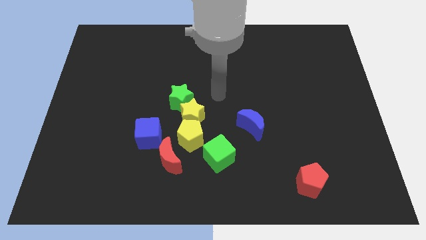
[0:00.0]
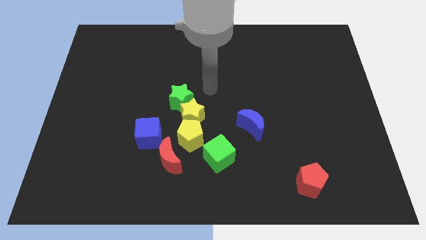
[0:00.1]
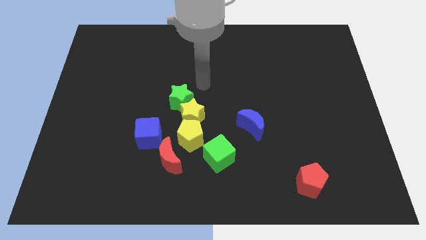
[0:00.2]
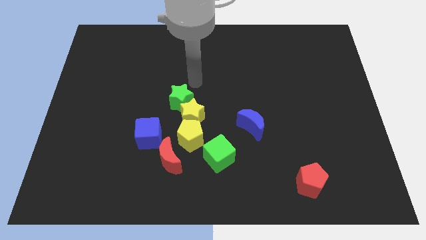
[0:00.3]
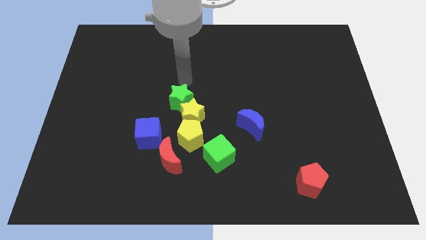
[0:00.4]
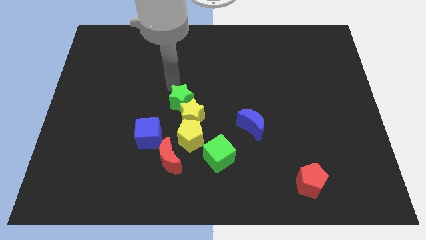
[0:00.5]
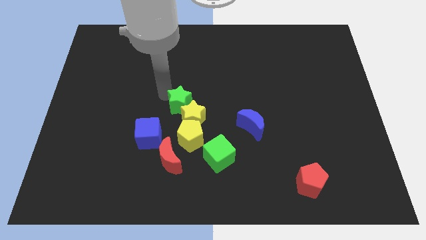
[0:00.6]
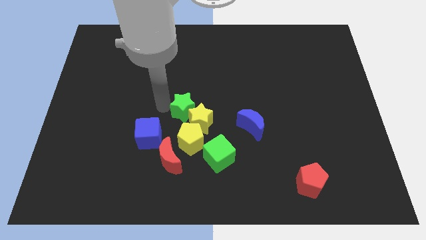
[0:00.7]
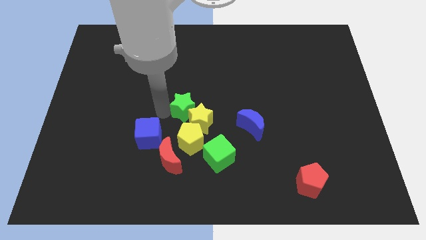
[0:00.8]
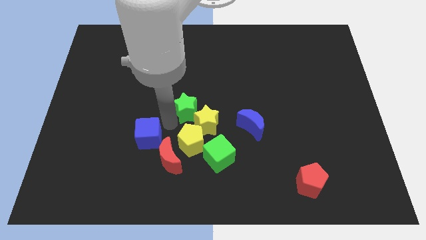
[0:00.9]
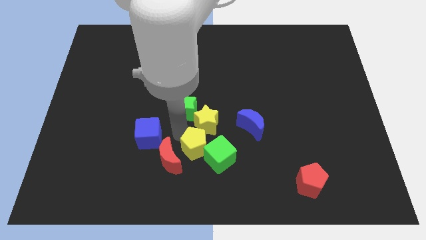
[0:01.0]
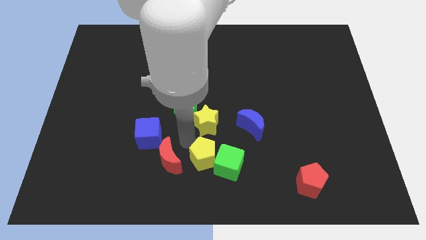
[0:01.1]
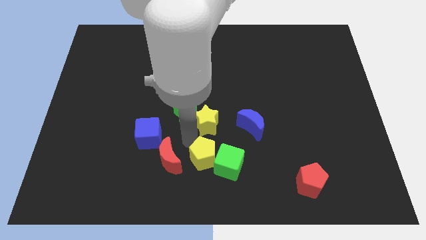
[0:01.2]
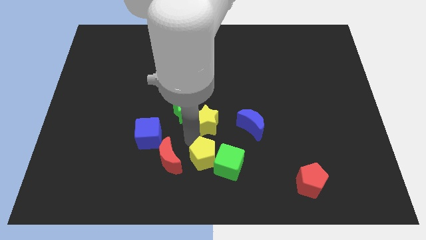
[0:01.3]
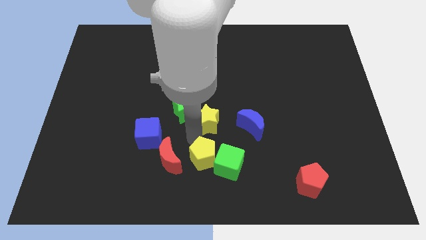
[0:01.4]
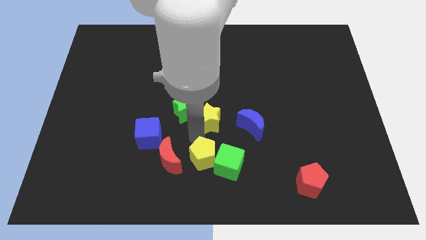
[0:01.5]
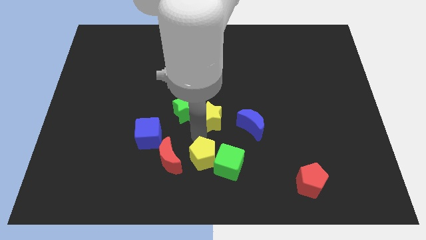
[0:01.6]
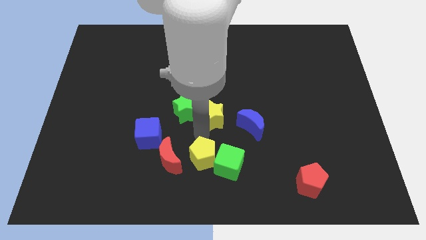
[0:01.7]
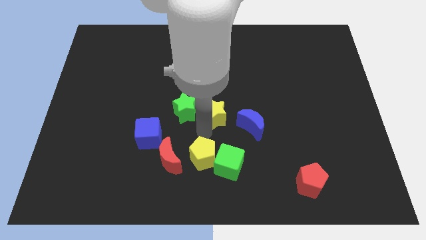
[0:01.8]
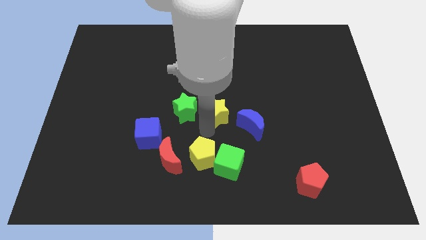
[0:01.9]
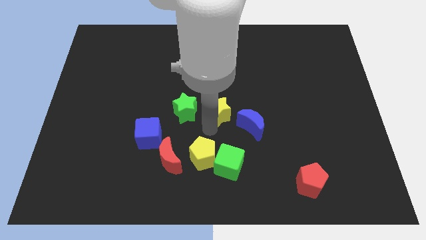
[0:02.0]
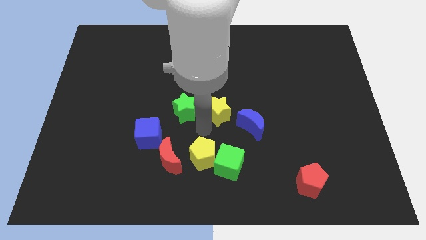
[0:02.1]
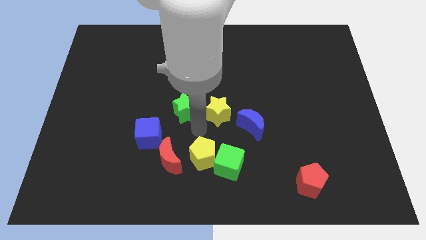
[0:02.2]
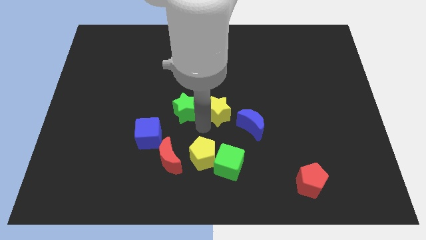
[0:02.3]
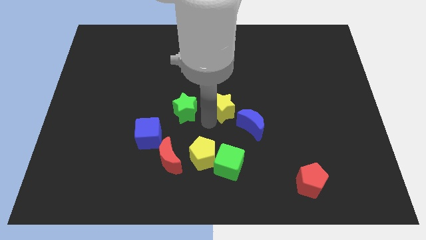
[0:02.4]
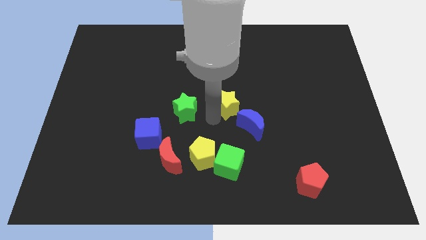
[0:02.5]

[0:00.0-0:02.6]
separate the yellow star from the yellow pentagon and green star

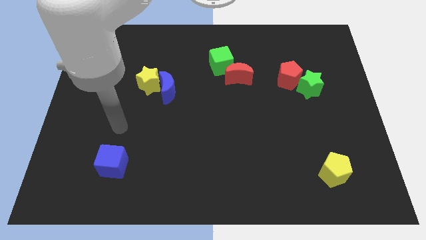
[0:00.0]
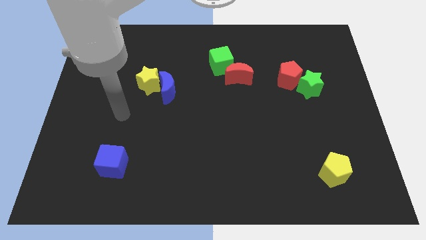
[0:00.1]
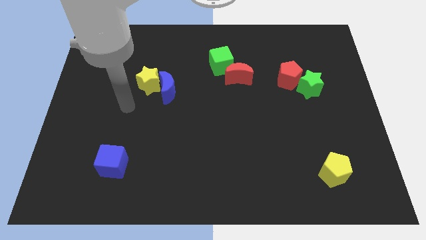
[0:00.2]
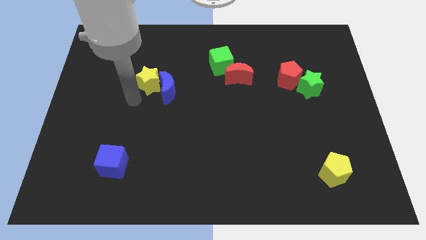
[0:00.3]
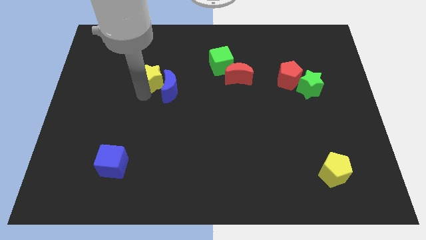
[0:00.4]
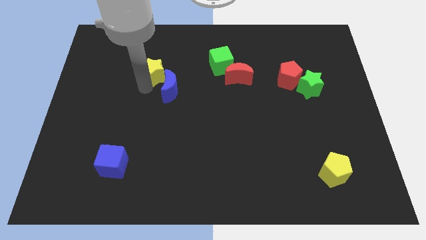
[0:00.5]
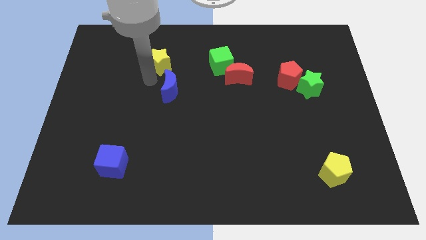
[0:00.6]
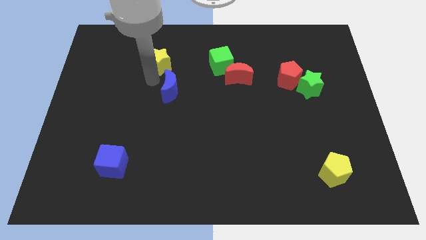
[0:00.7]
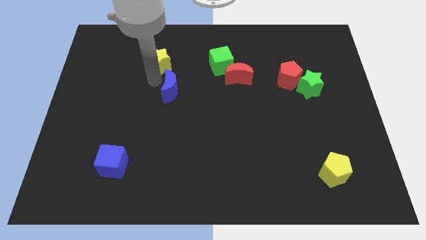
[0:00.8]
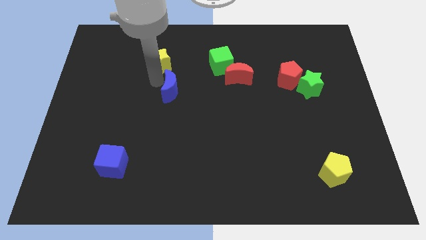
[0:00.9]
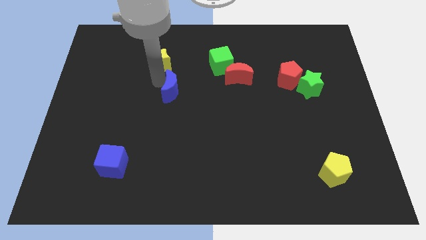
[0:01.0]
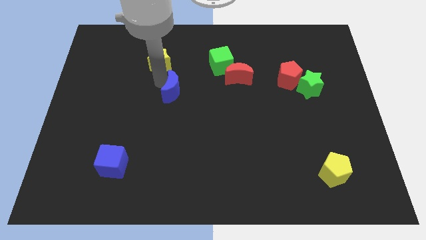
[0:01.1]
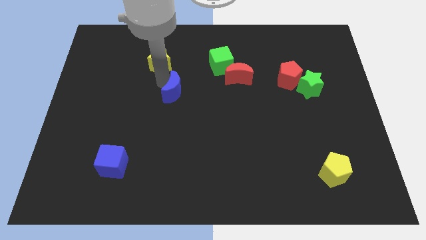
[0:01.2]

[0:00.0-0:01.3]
pull the blue moon apart from the yellow star

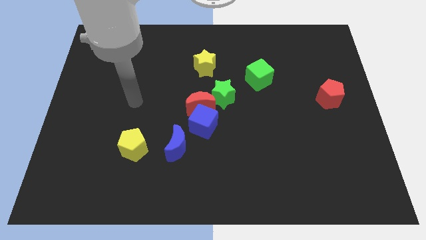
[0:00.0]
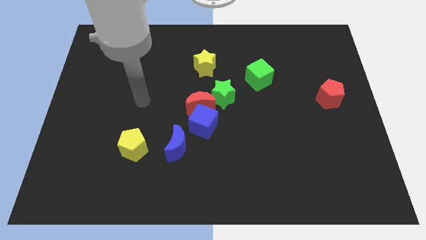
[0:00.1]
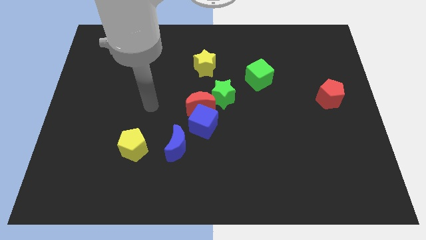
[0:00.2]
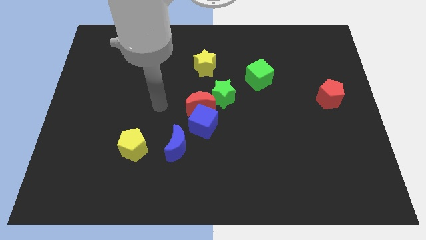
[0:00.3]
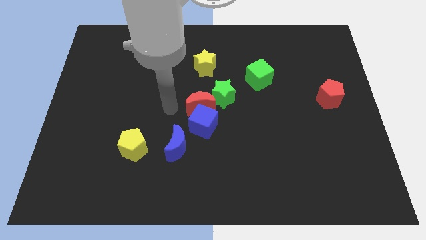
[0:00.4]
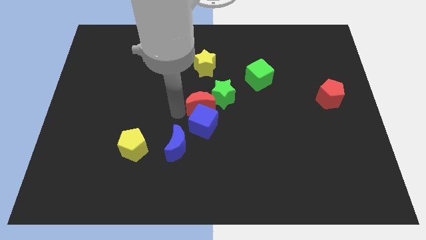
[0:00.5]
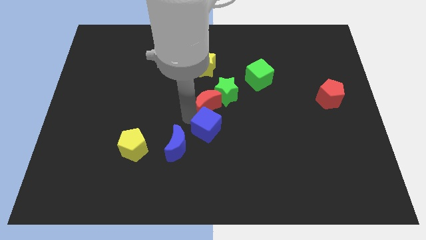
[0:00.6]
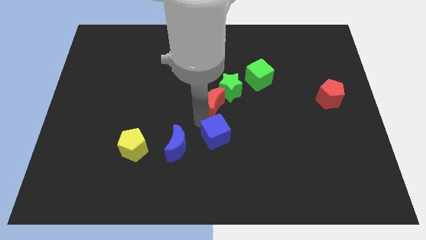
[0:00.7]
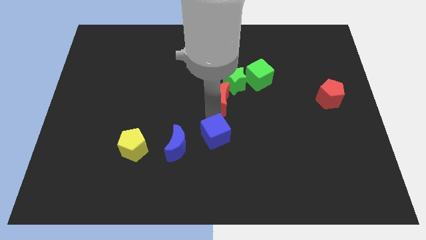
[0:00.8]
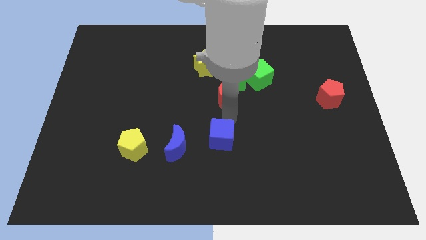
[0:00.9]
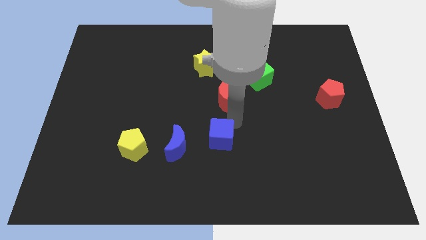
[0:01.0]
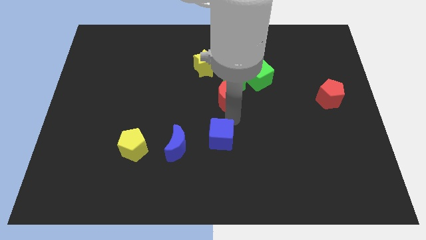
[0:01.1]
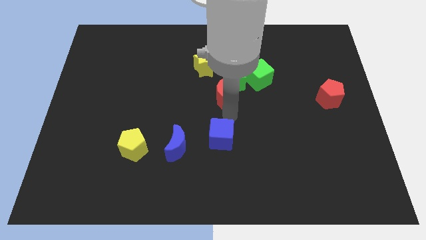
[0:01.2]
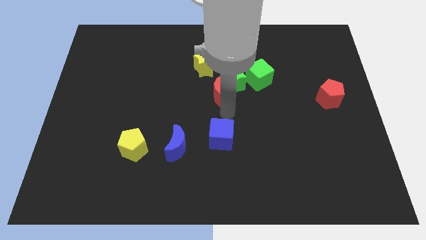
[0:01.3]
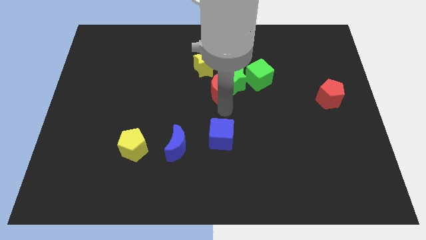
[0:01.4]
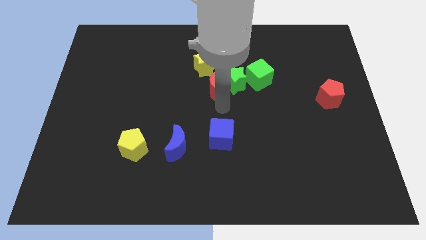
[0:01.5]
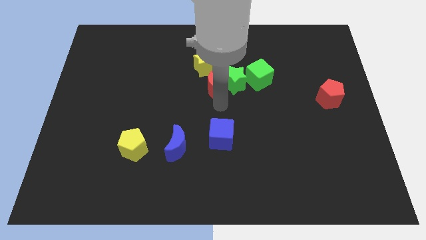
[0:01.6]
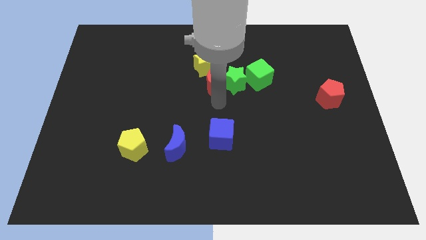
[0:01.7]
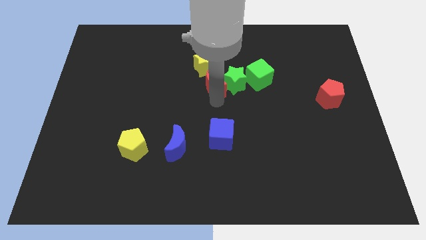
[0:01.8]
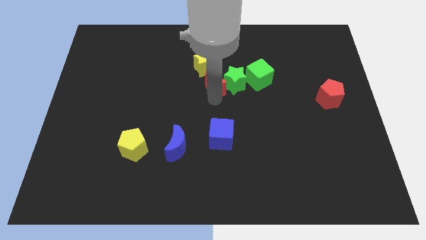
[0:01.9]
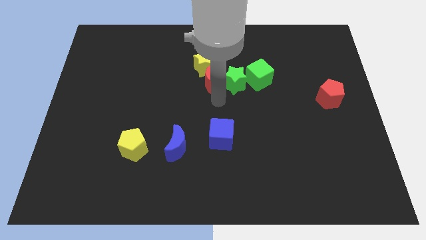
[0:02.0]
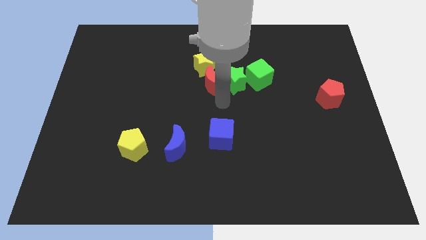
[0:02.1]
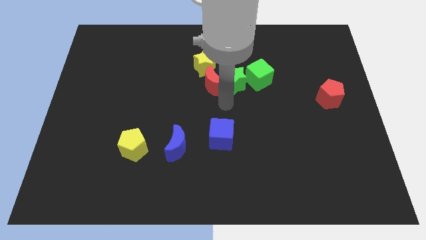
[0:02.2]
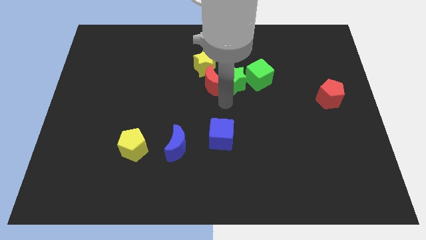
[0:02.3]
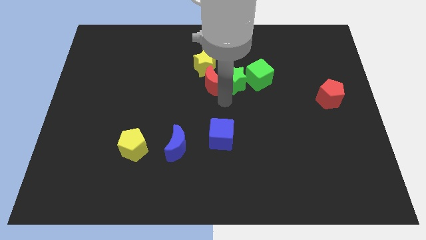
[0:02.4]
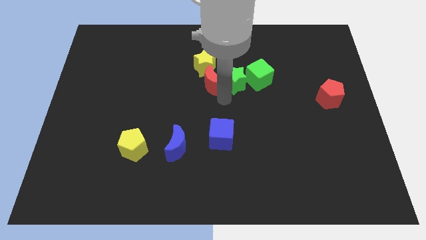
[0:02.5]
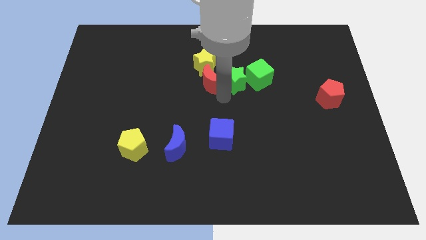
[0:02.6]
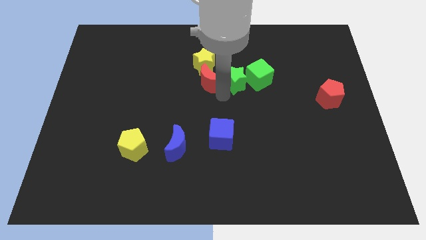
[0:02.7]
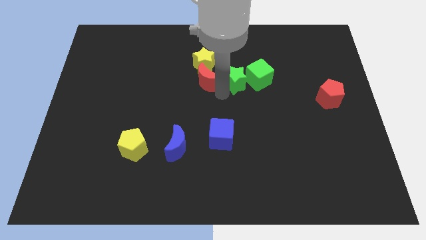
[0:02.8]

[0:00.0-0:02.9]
move the red moon away from the blue cube and green star

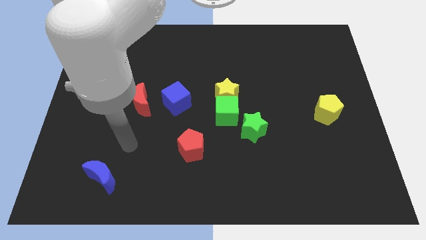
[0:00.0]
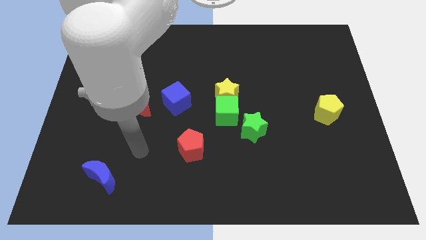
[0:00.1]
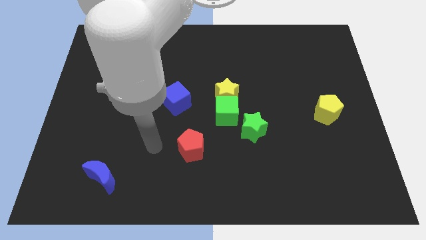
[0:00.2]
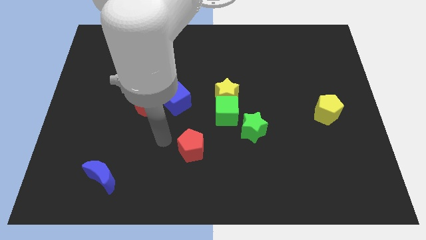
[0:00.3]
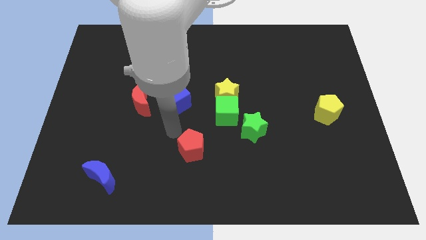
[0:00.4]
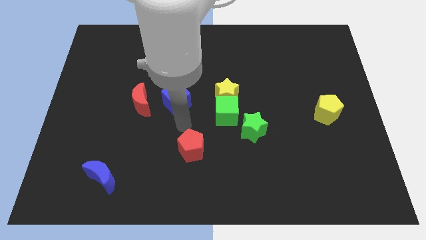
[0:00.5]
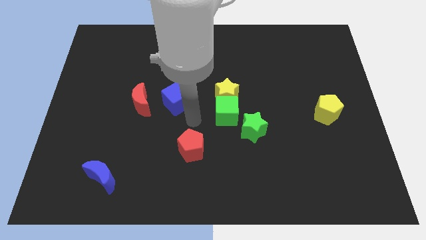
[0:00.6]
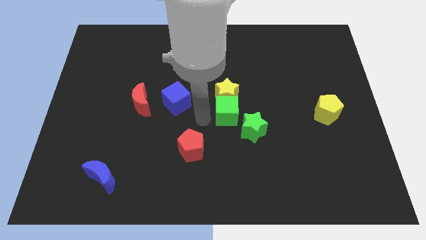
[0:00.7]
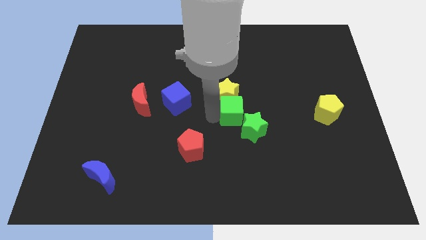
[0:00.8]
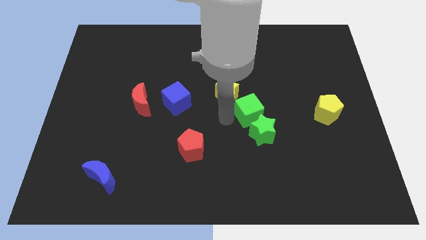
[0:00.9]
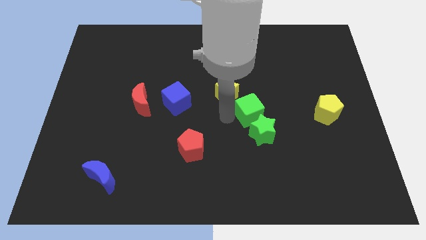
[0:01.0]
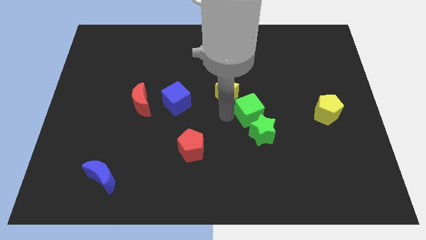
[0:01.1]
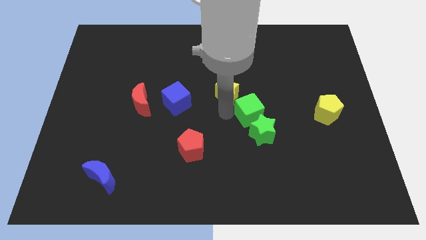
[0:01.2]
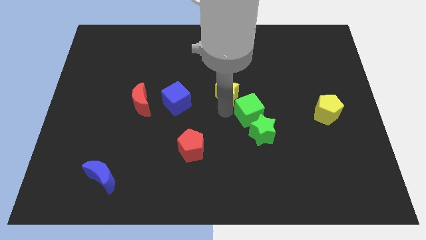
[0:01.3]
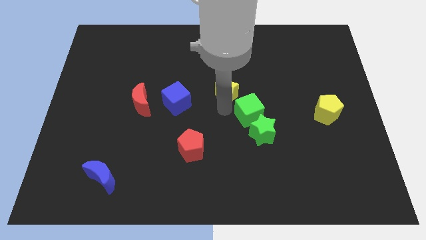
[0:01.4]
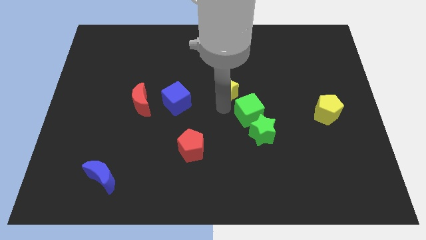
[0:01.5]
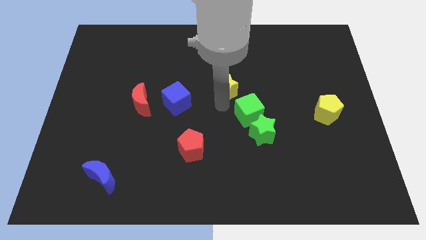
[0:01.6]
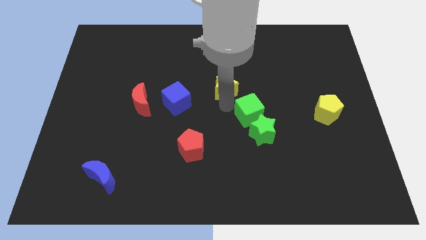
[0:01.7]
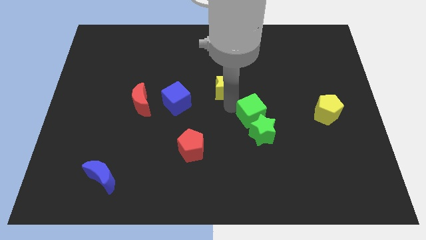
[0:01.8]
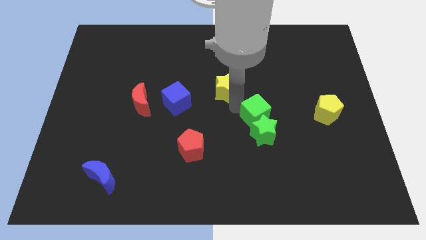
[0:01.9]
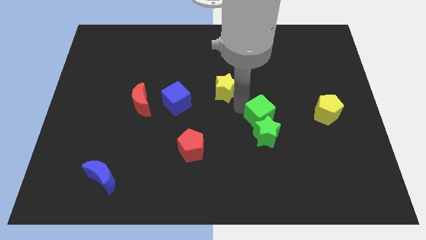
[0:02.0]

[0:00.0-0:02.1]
pull the yellow star apart from the green cube

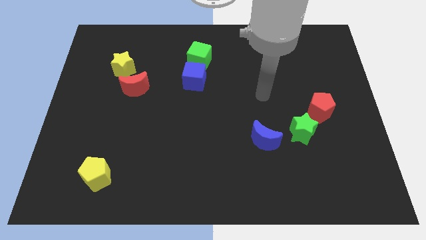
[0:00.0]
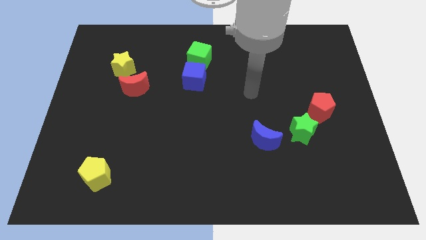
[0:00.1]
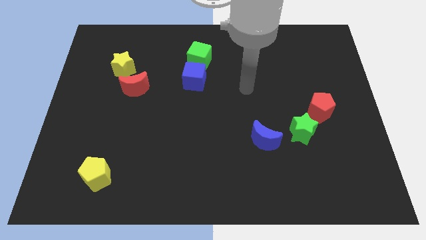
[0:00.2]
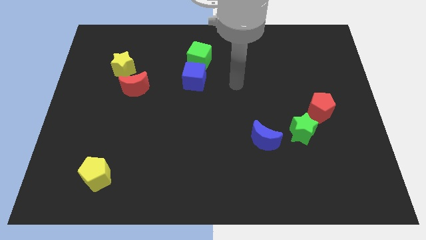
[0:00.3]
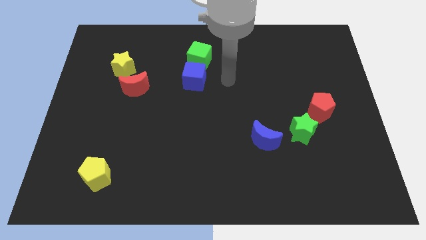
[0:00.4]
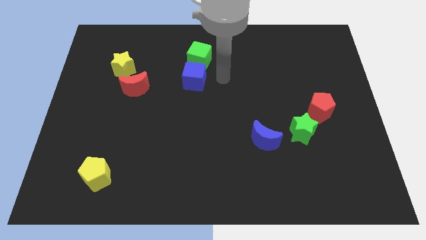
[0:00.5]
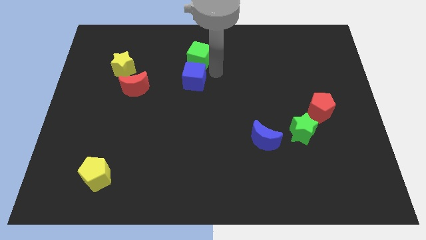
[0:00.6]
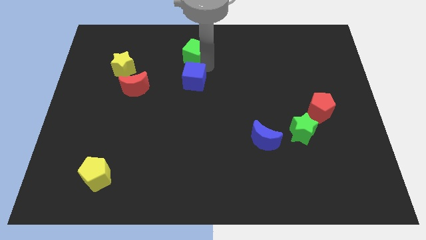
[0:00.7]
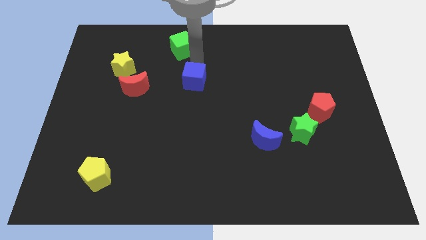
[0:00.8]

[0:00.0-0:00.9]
pull the blue cube apart from the green cube
